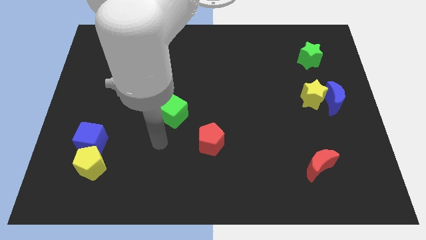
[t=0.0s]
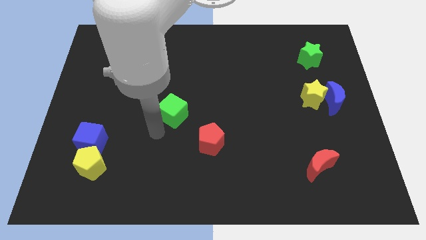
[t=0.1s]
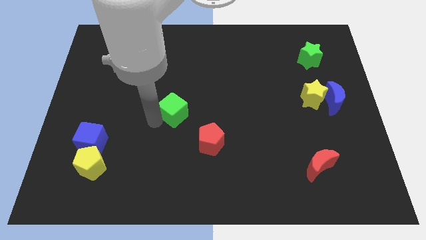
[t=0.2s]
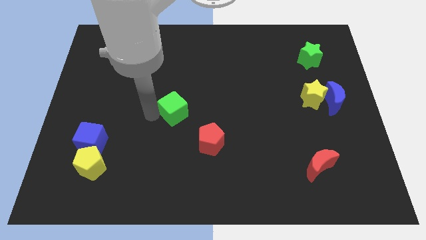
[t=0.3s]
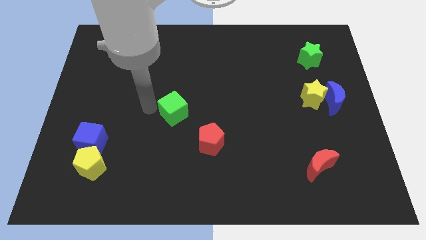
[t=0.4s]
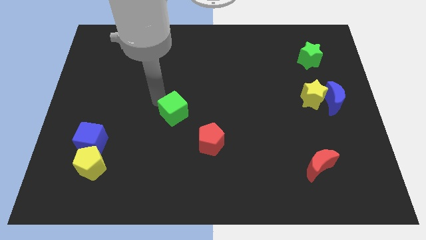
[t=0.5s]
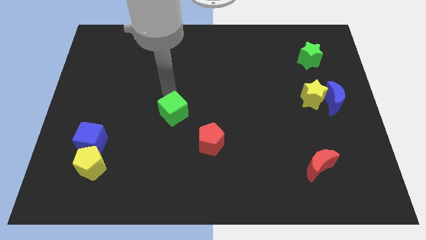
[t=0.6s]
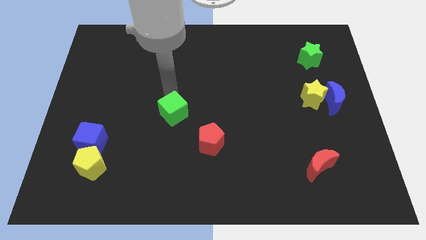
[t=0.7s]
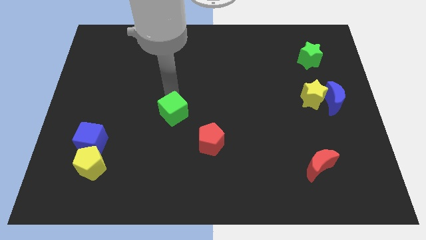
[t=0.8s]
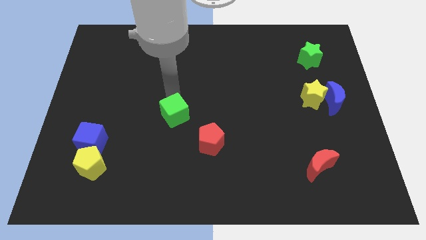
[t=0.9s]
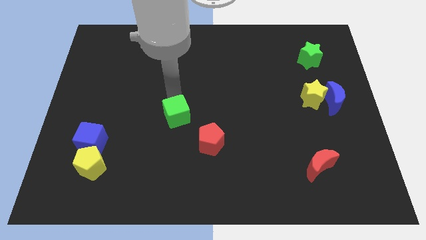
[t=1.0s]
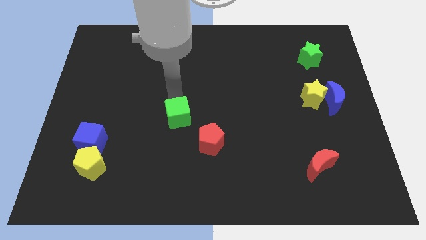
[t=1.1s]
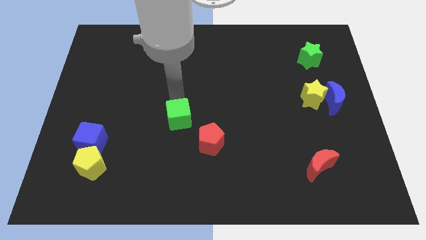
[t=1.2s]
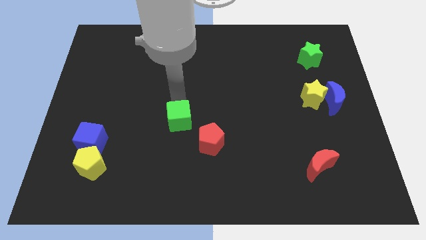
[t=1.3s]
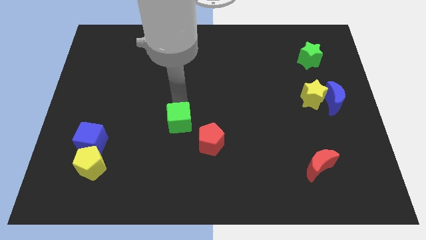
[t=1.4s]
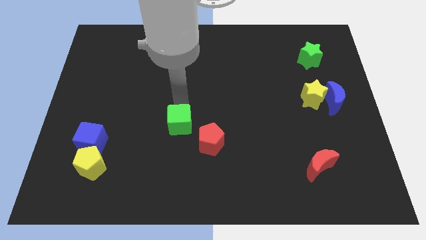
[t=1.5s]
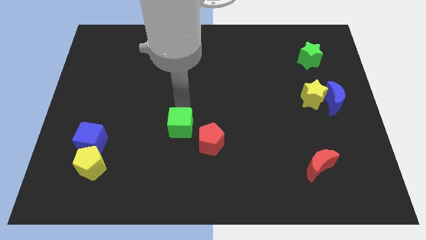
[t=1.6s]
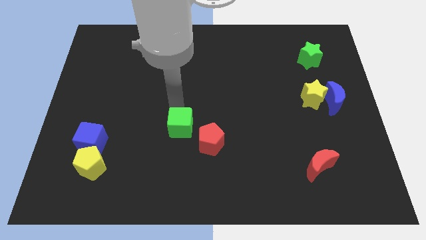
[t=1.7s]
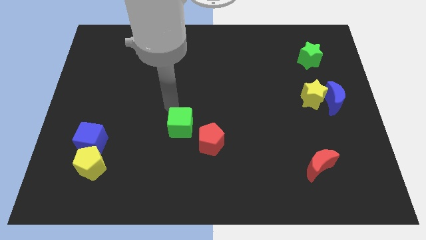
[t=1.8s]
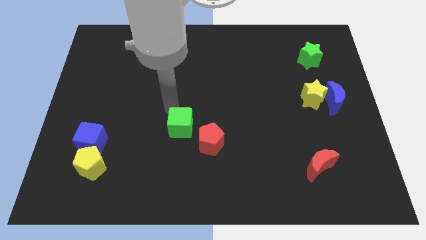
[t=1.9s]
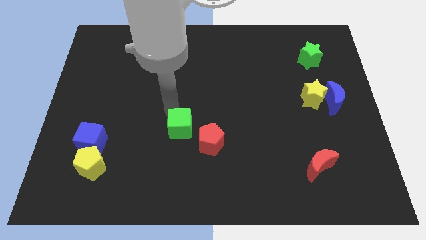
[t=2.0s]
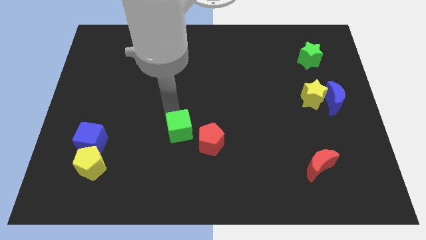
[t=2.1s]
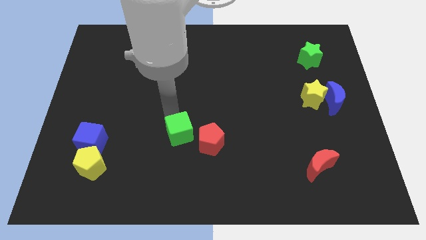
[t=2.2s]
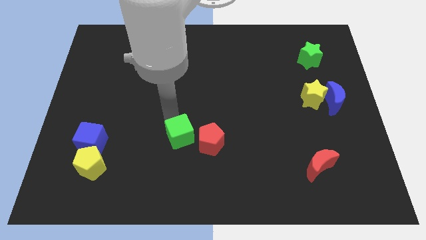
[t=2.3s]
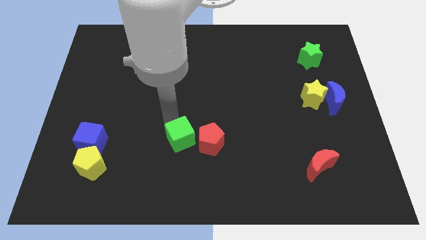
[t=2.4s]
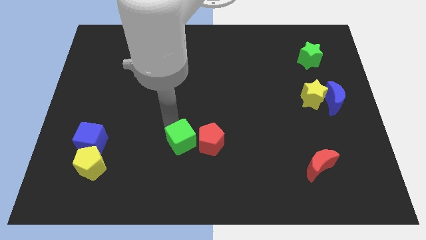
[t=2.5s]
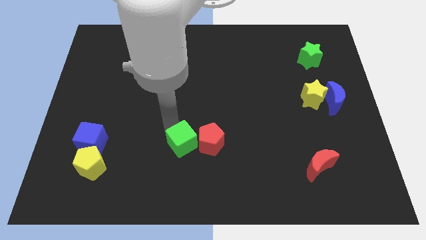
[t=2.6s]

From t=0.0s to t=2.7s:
push the green cube slightly down and then right

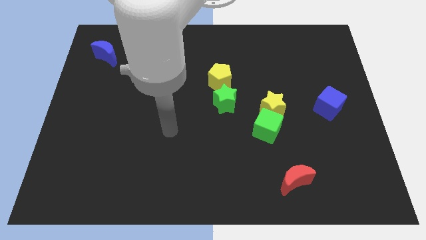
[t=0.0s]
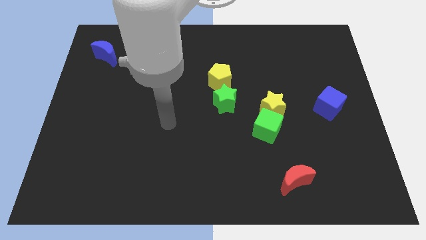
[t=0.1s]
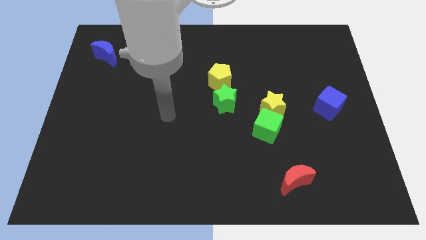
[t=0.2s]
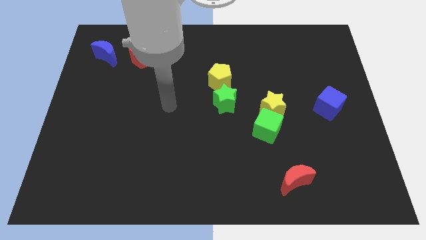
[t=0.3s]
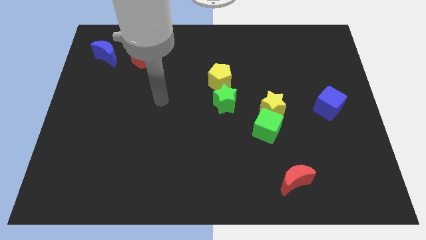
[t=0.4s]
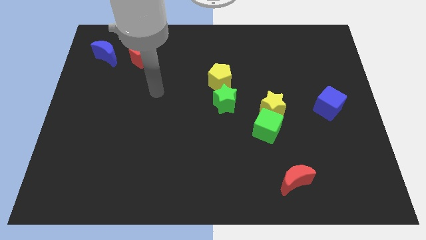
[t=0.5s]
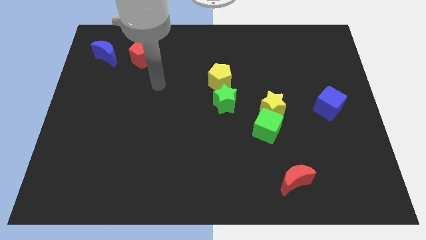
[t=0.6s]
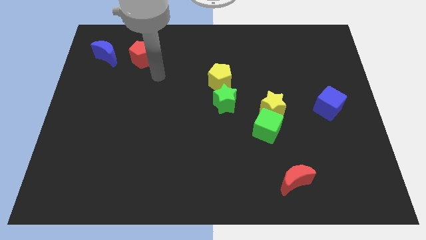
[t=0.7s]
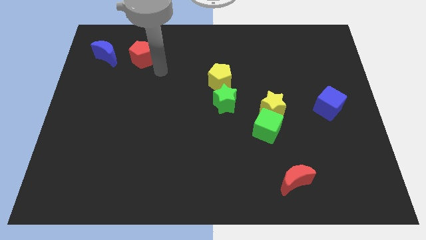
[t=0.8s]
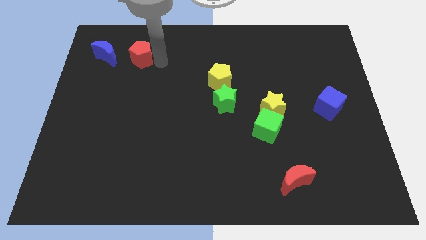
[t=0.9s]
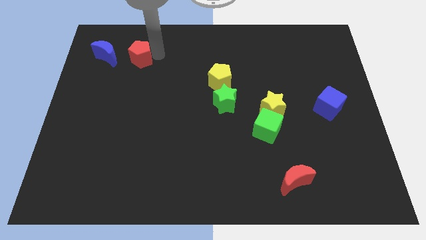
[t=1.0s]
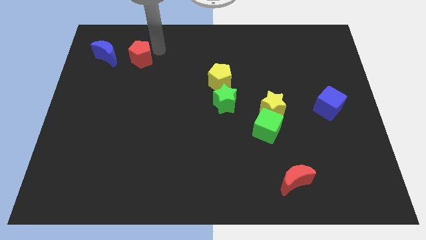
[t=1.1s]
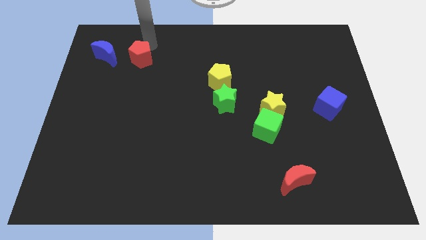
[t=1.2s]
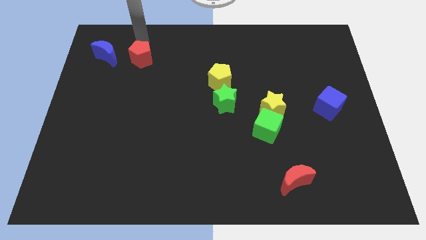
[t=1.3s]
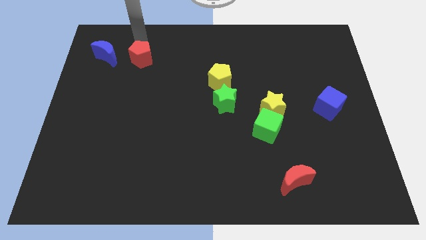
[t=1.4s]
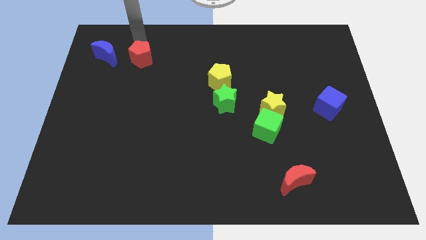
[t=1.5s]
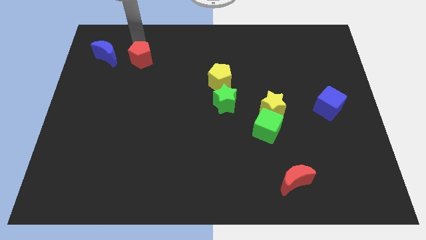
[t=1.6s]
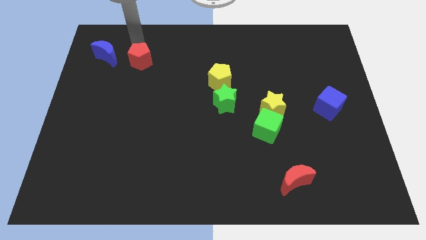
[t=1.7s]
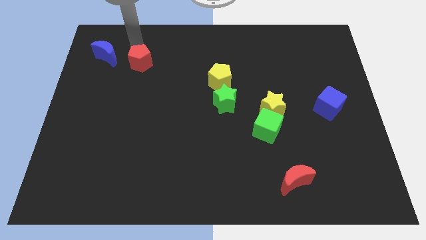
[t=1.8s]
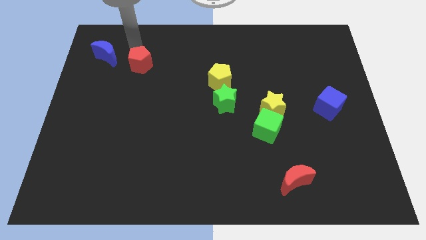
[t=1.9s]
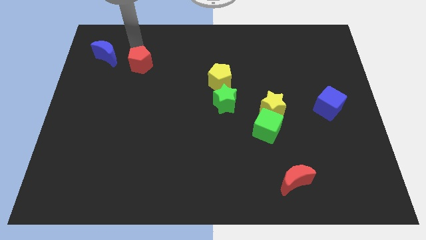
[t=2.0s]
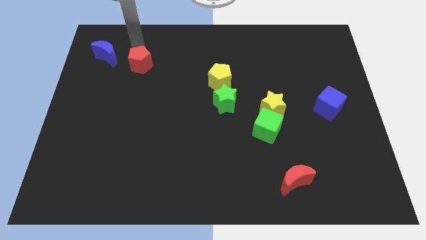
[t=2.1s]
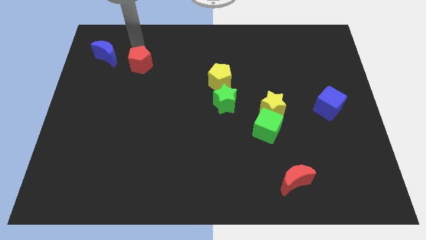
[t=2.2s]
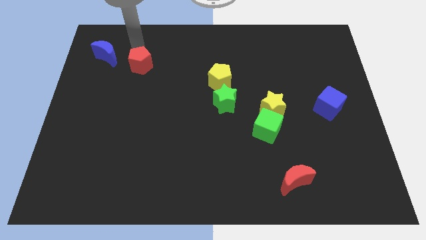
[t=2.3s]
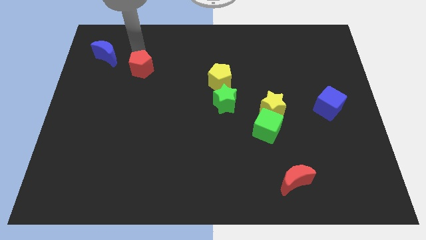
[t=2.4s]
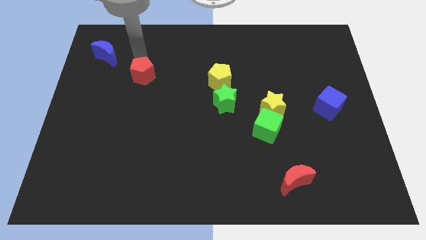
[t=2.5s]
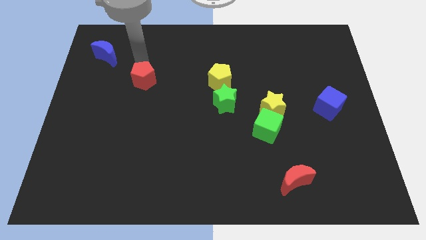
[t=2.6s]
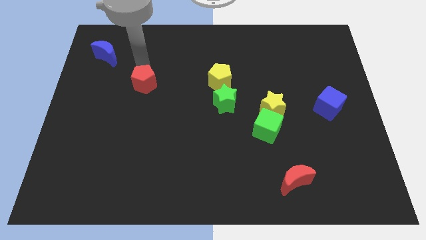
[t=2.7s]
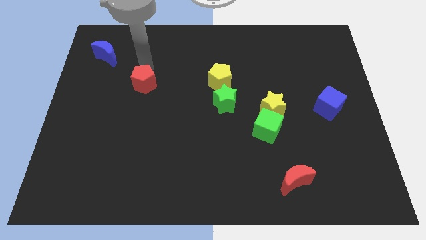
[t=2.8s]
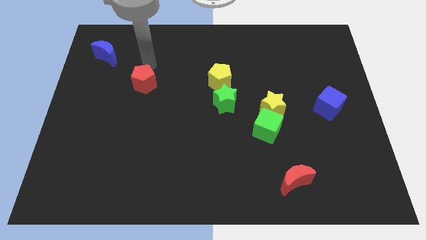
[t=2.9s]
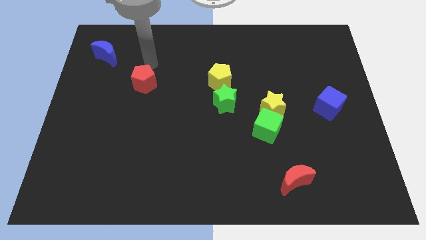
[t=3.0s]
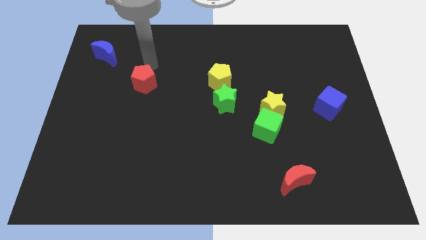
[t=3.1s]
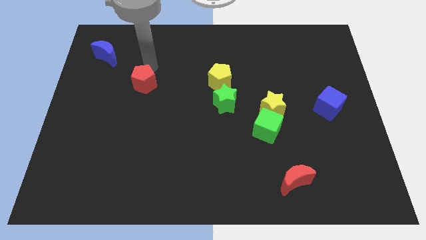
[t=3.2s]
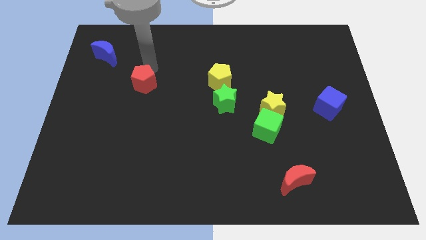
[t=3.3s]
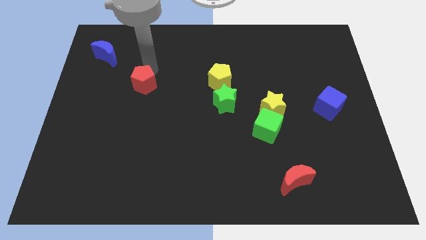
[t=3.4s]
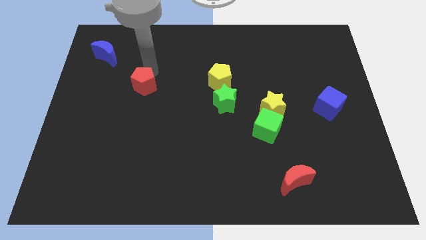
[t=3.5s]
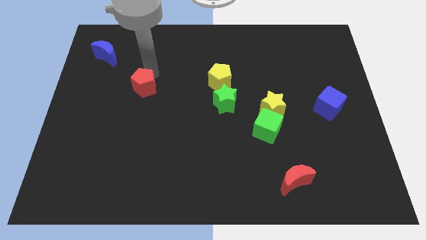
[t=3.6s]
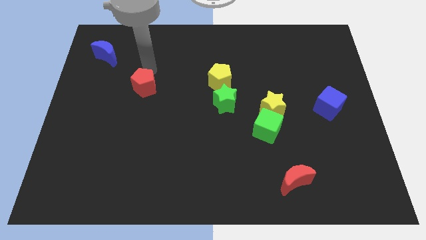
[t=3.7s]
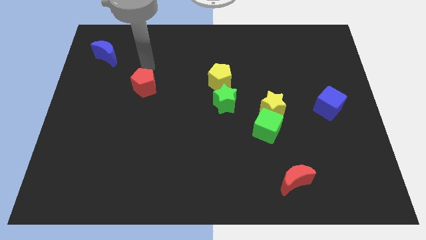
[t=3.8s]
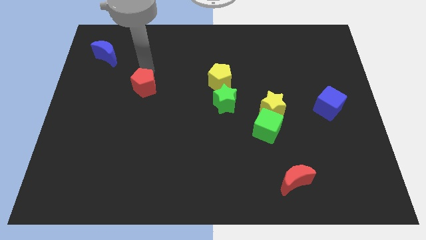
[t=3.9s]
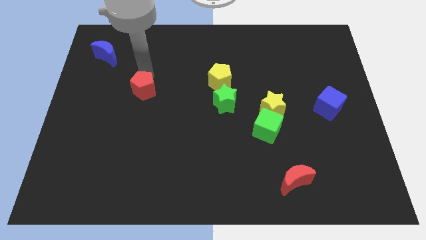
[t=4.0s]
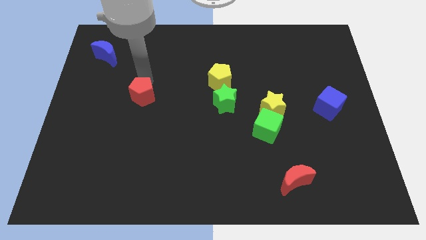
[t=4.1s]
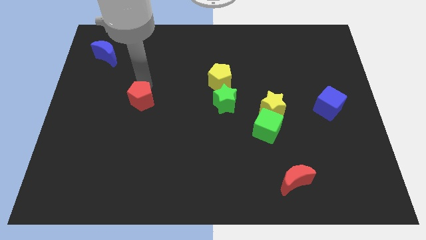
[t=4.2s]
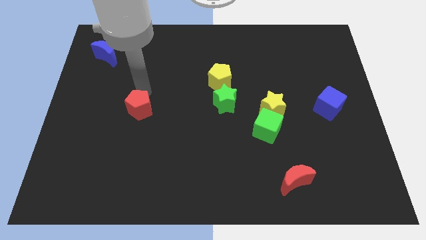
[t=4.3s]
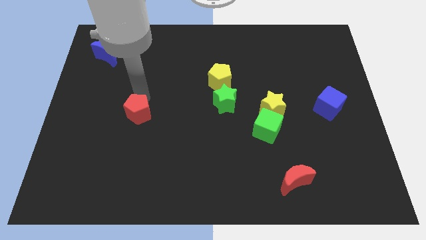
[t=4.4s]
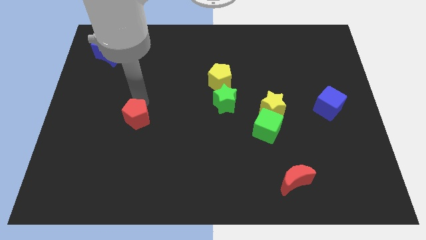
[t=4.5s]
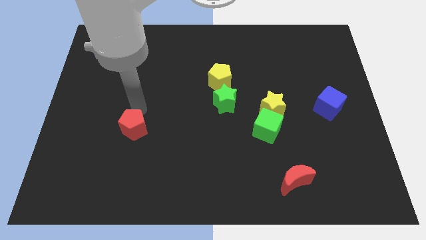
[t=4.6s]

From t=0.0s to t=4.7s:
slide the red pentagon down

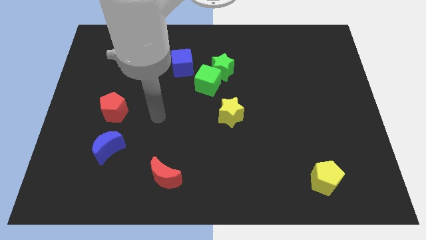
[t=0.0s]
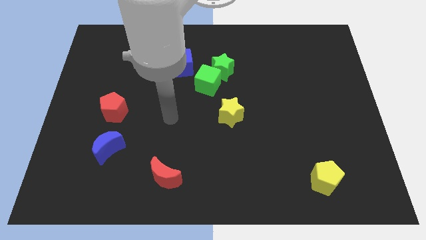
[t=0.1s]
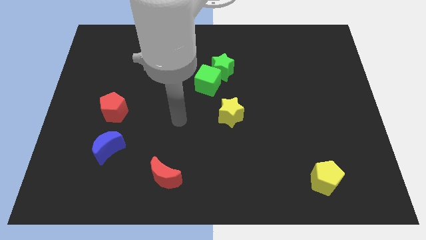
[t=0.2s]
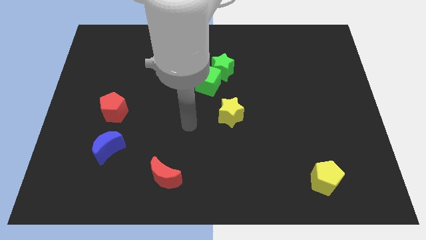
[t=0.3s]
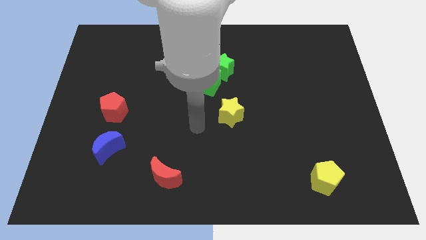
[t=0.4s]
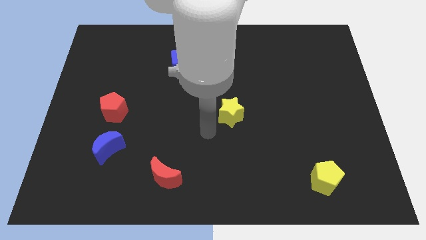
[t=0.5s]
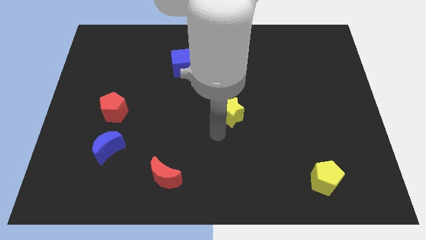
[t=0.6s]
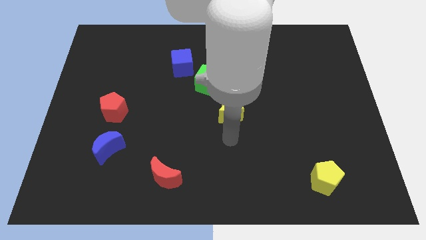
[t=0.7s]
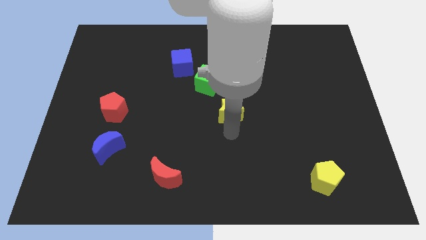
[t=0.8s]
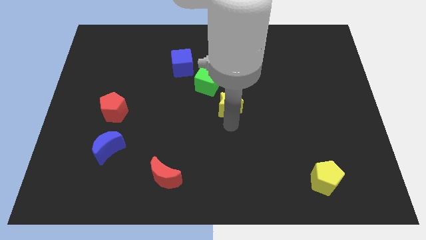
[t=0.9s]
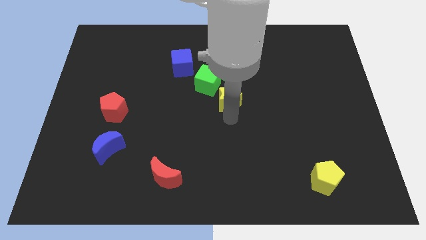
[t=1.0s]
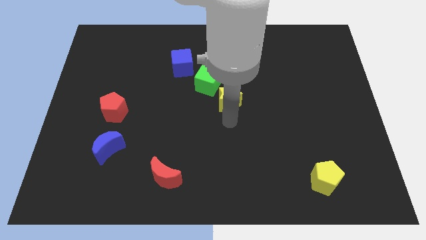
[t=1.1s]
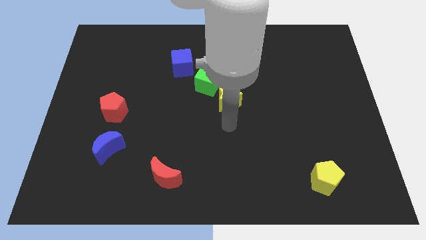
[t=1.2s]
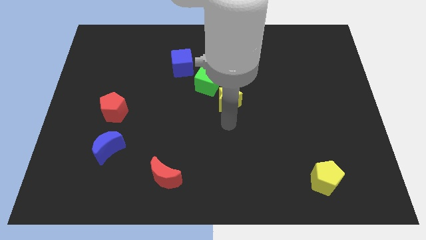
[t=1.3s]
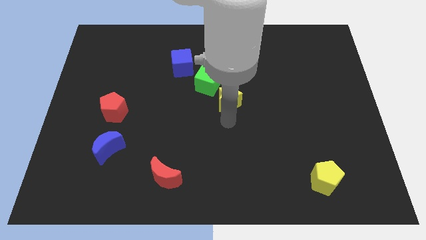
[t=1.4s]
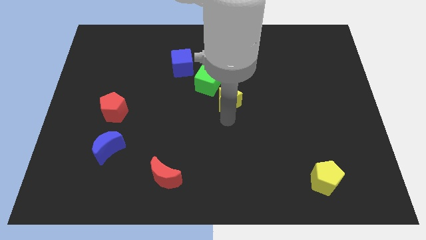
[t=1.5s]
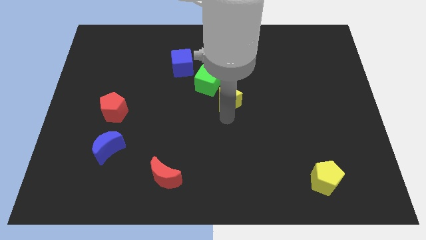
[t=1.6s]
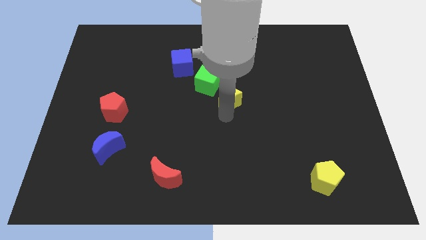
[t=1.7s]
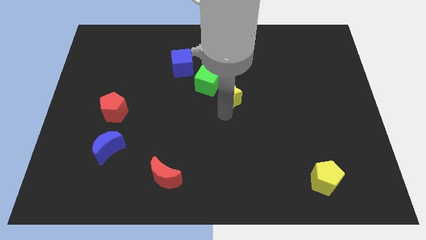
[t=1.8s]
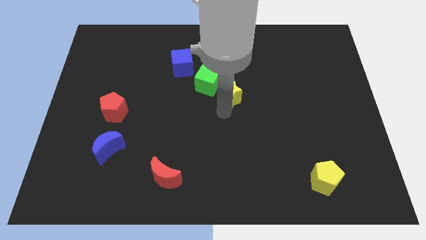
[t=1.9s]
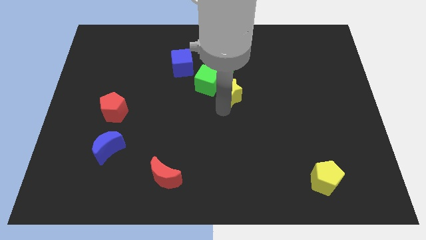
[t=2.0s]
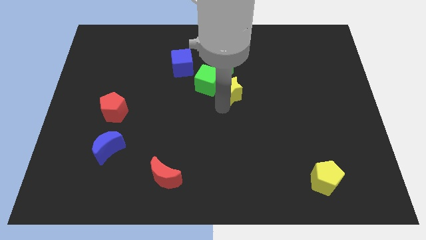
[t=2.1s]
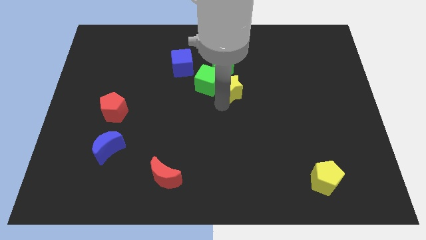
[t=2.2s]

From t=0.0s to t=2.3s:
slightly push the yellow star upwards
